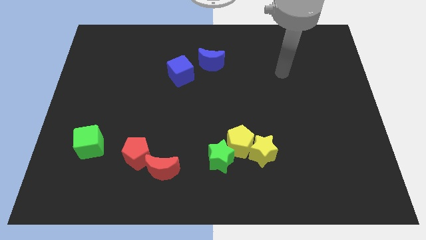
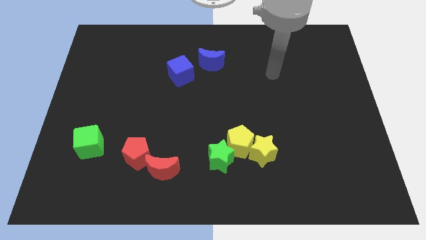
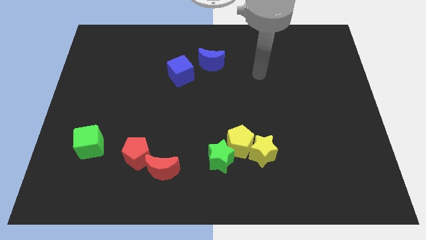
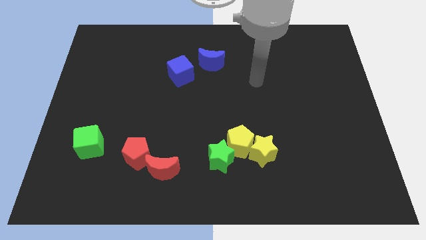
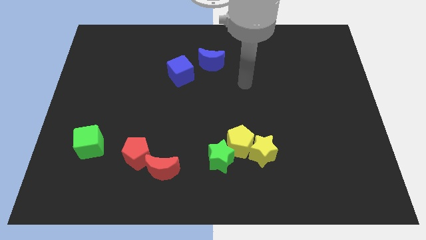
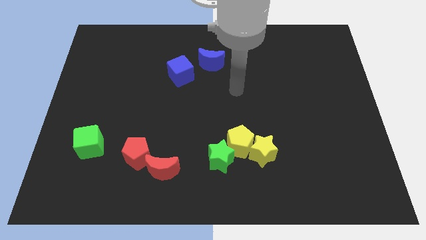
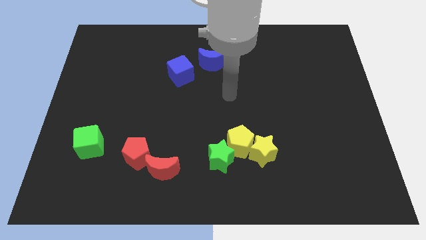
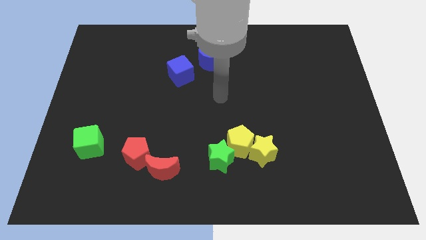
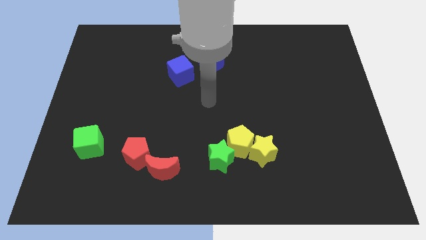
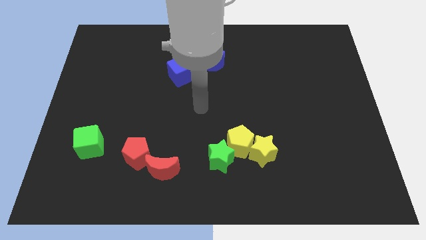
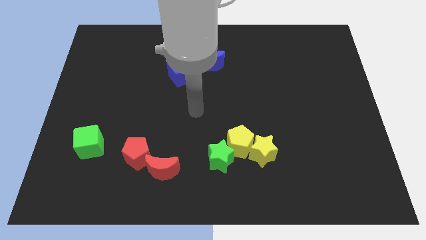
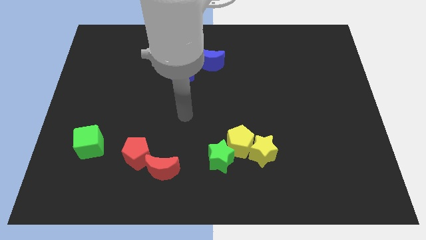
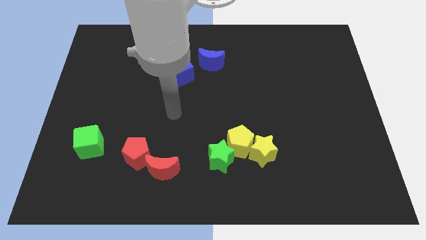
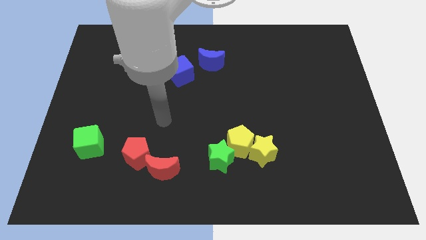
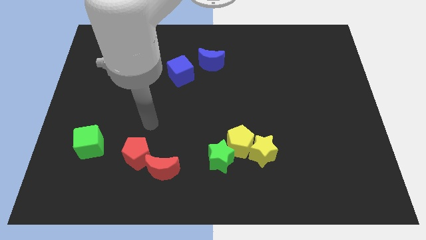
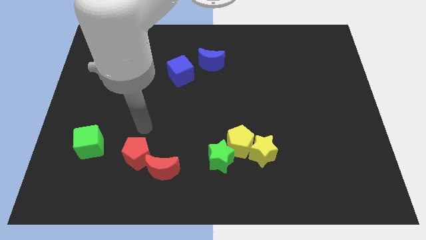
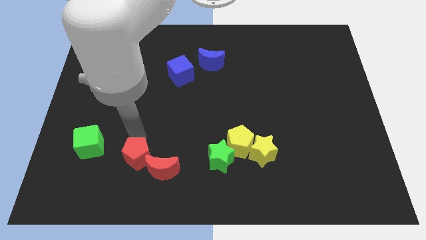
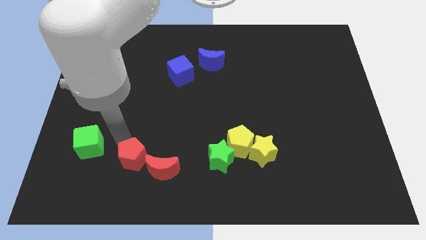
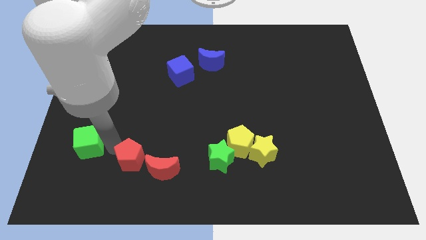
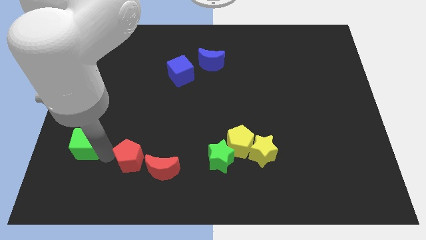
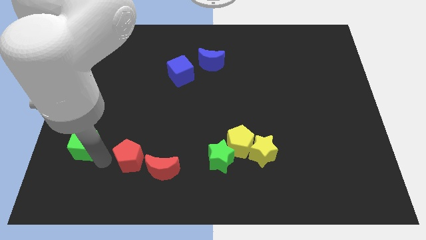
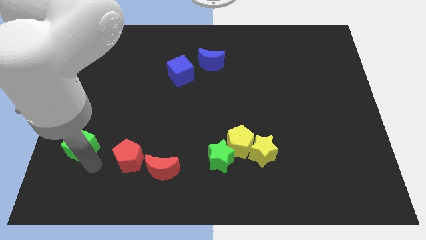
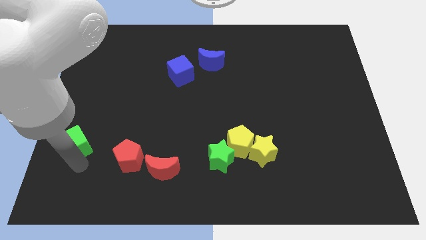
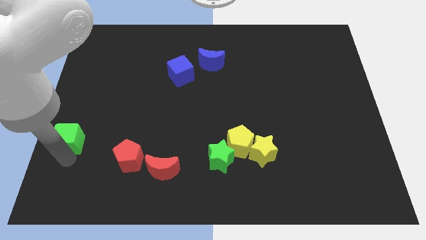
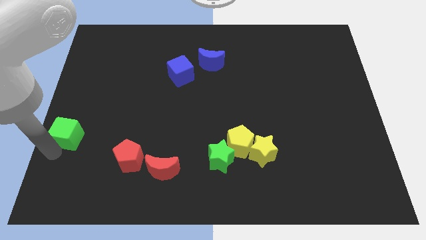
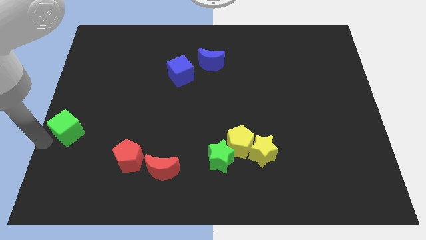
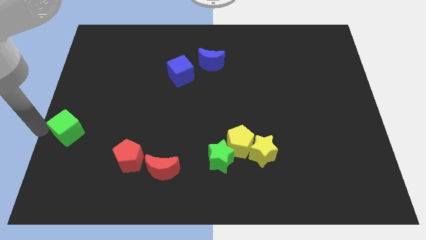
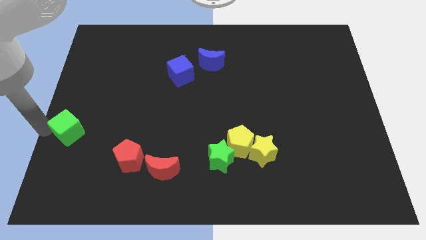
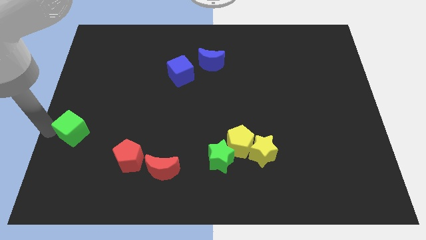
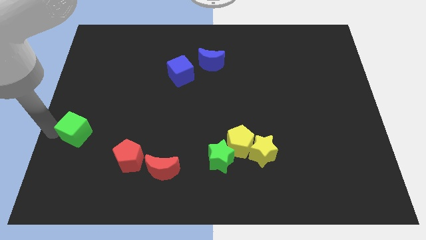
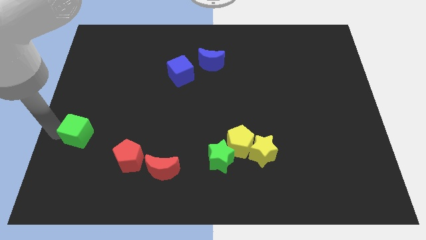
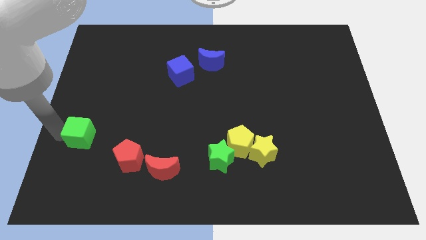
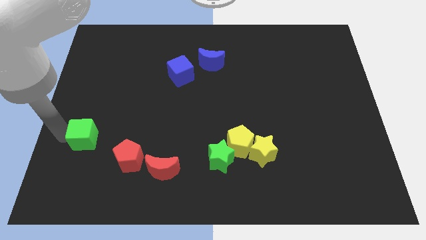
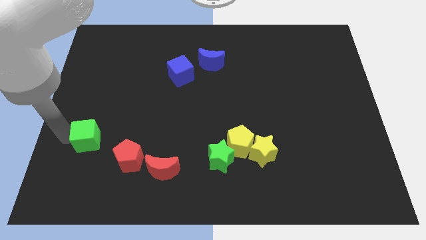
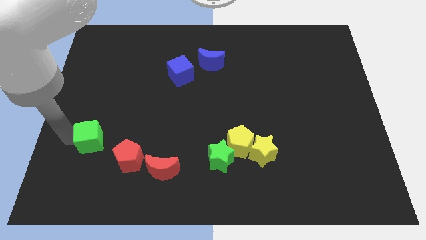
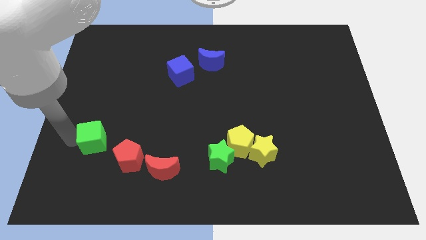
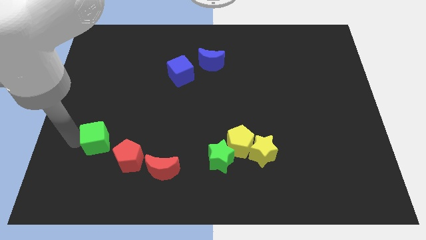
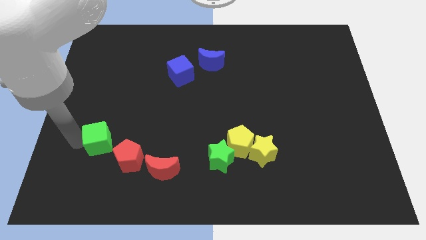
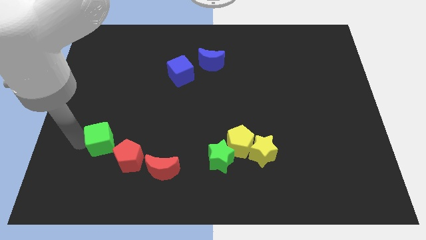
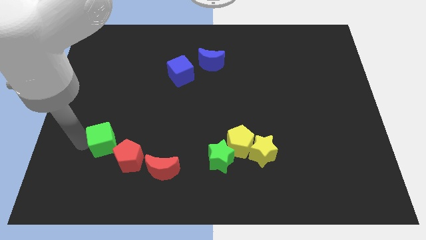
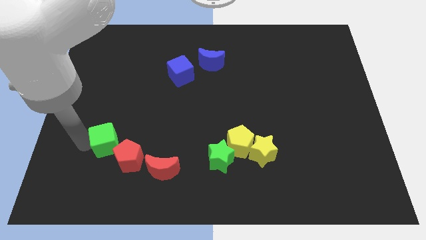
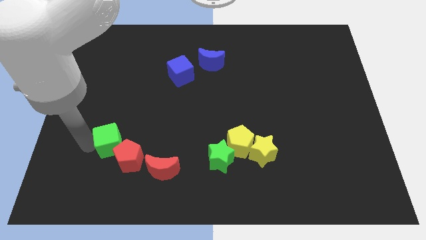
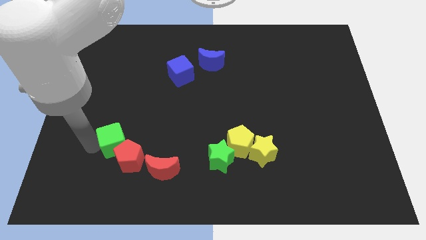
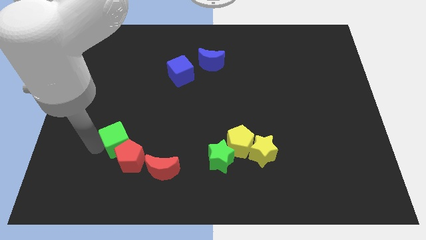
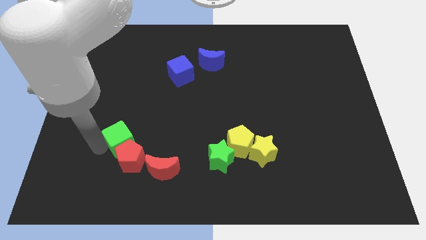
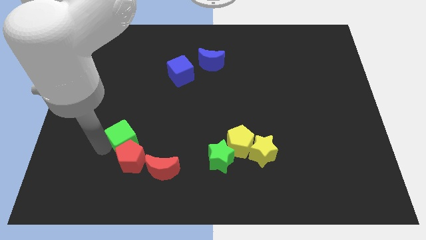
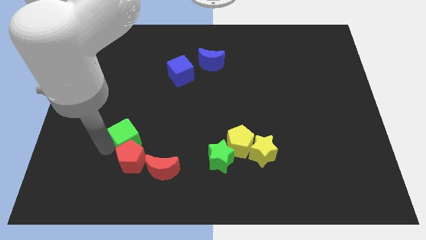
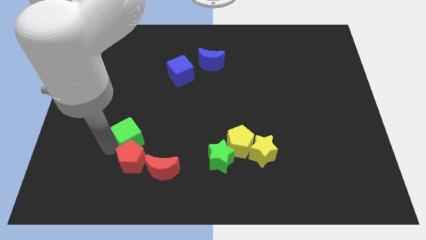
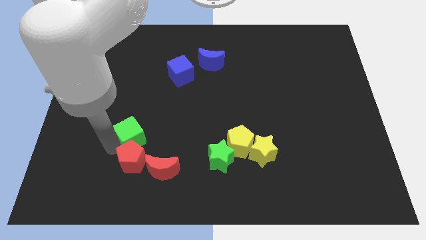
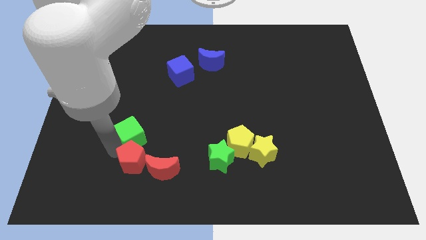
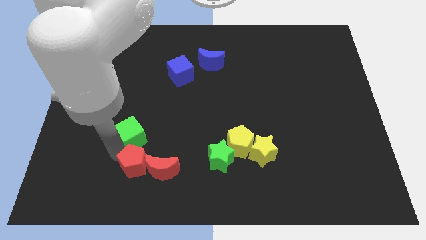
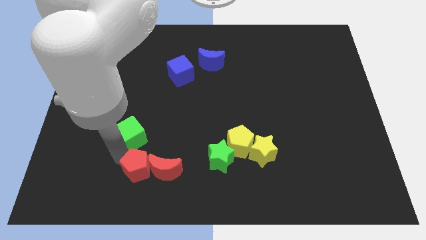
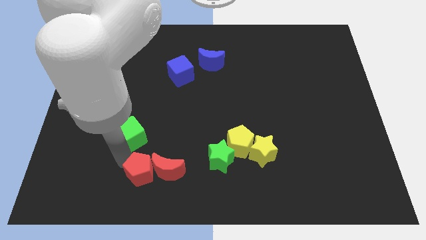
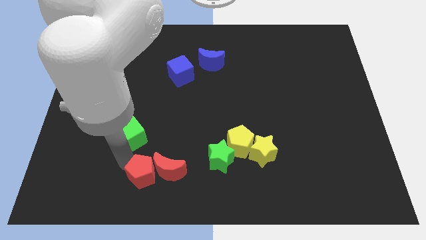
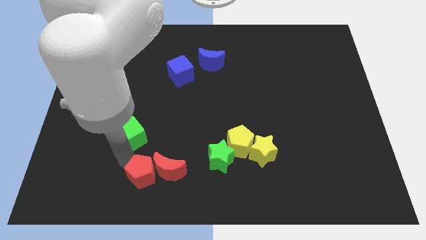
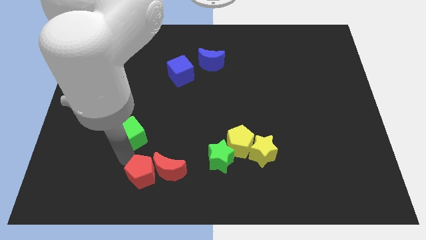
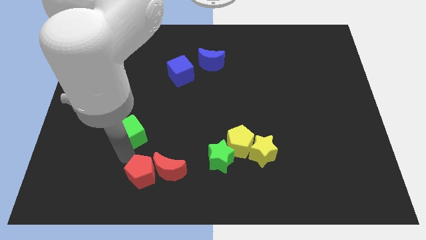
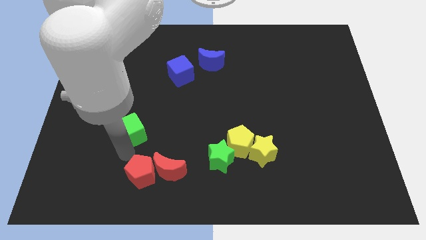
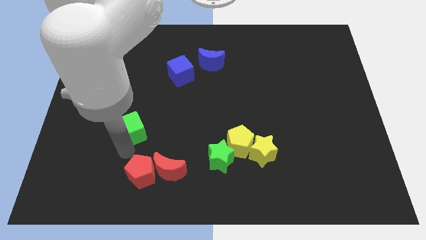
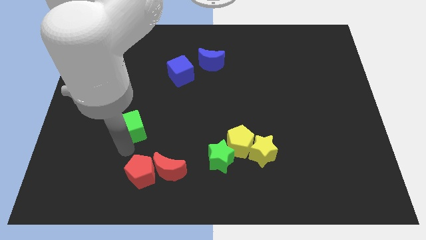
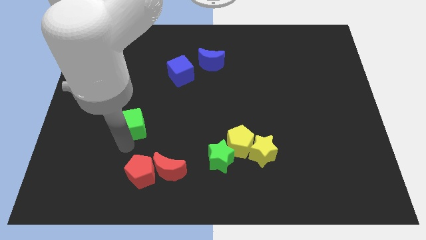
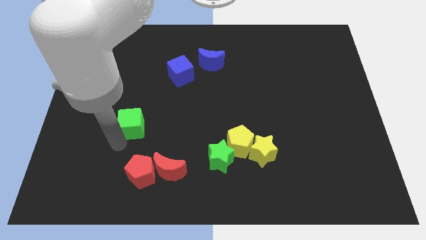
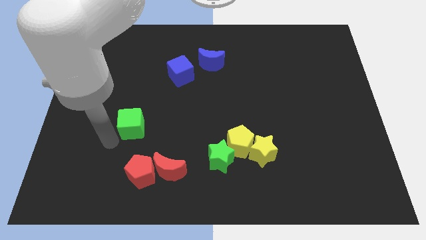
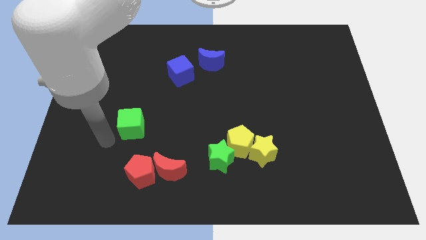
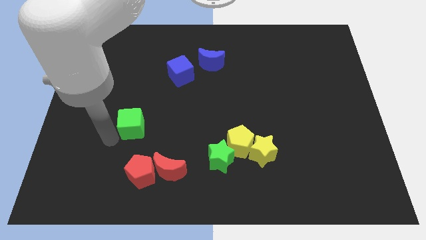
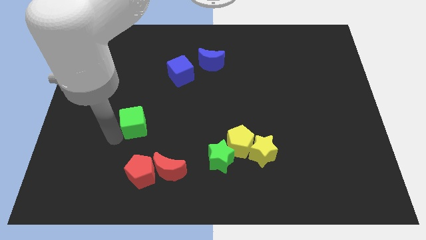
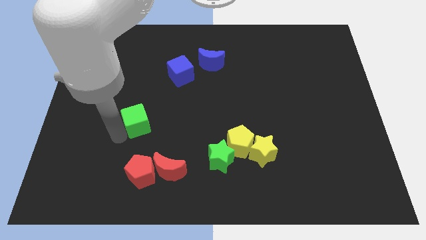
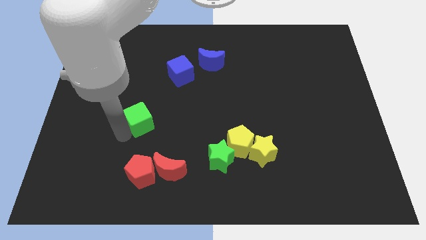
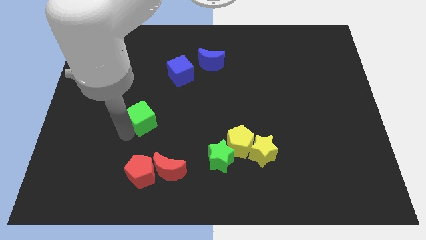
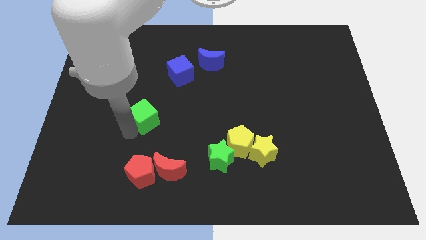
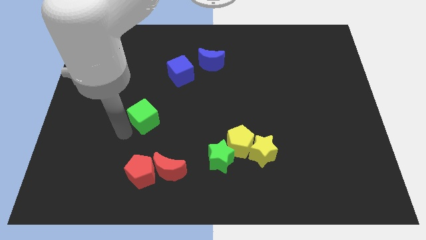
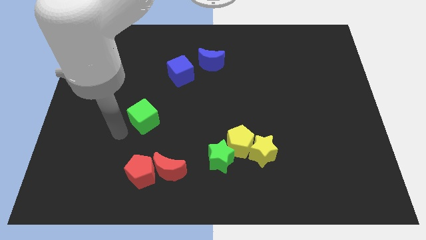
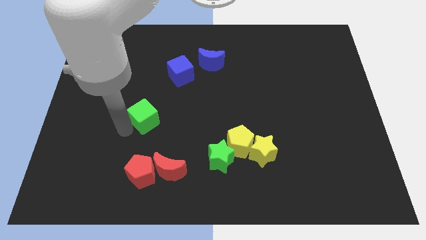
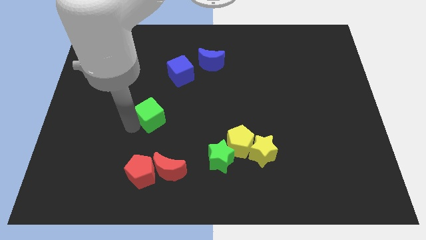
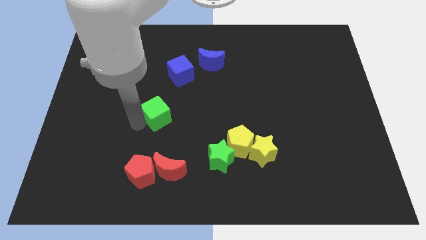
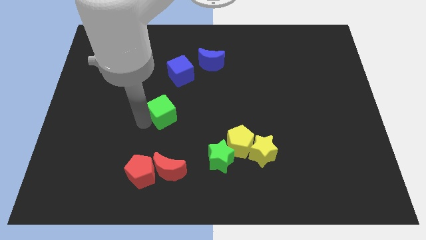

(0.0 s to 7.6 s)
push the green cube to the center of the board
